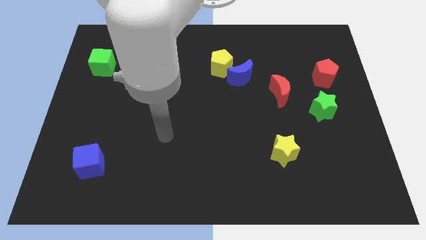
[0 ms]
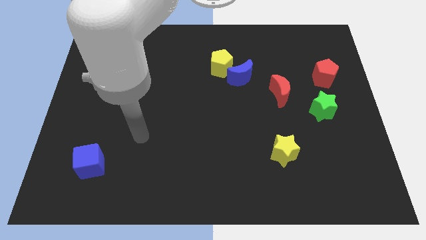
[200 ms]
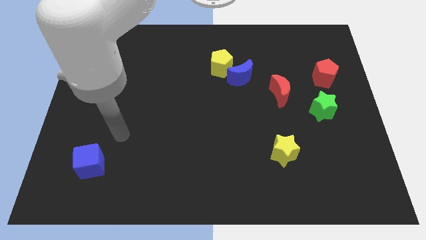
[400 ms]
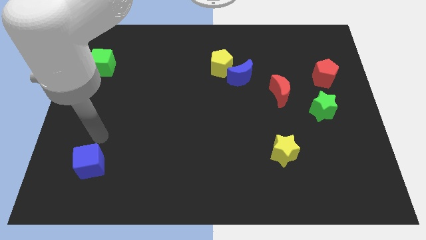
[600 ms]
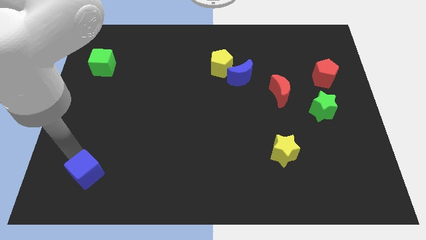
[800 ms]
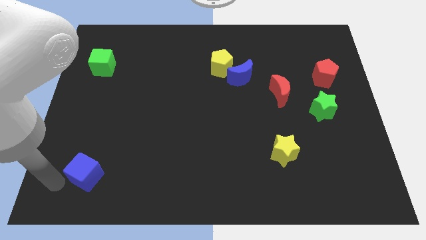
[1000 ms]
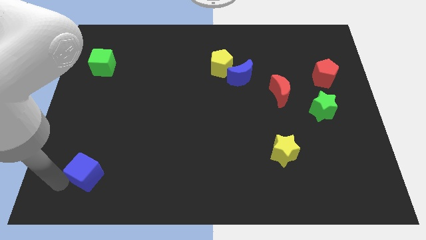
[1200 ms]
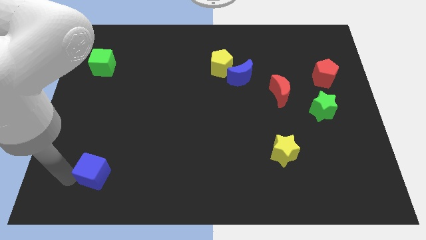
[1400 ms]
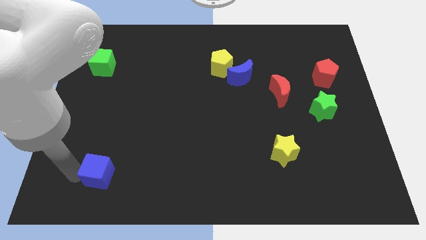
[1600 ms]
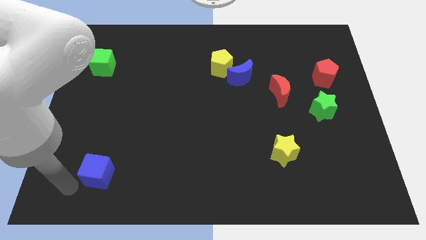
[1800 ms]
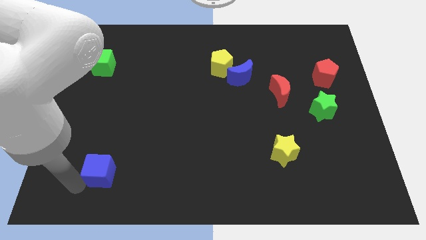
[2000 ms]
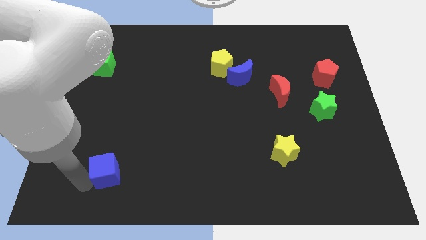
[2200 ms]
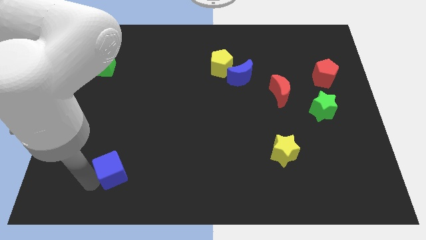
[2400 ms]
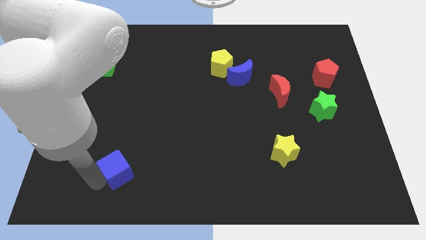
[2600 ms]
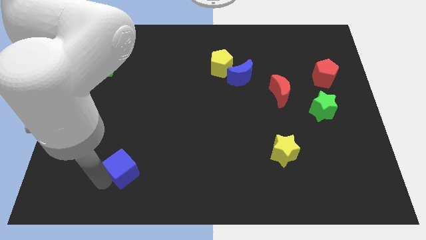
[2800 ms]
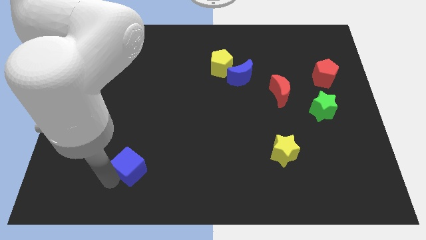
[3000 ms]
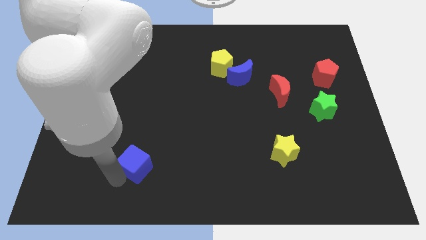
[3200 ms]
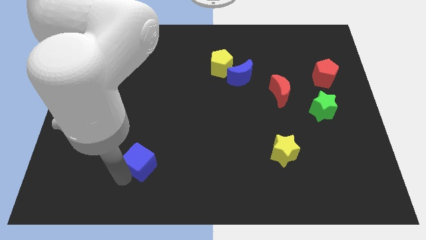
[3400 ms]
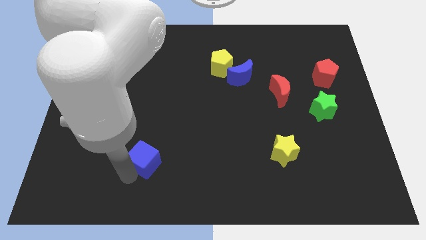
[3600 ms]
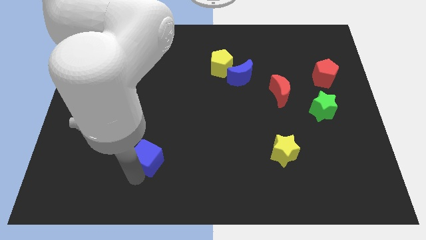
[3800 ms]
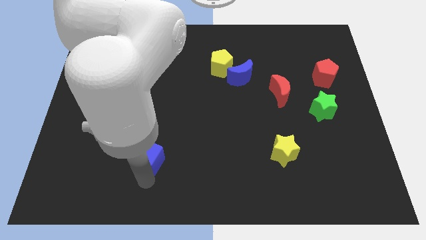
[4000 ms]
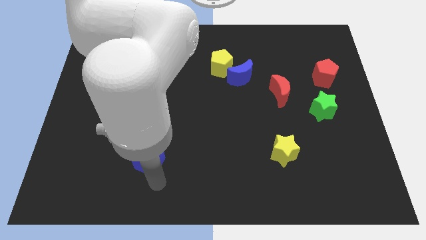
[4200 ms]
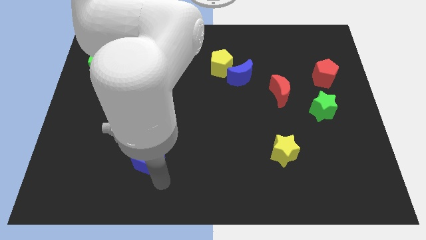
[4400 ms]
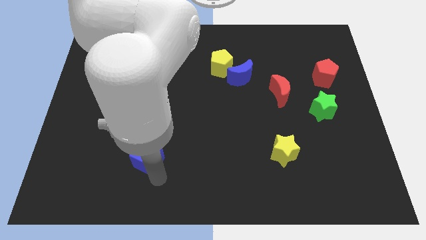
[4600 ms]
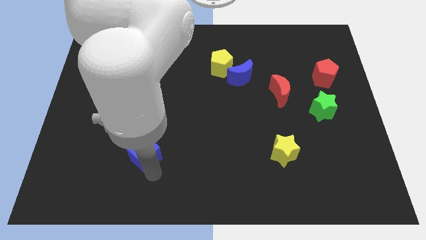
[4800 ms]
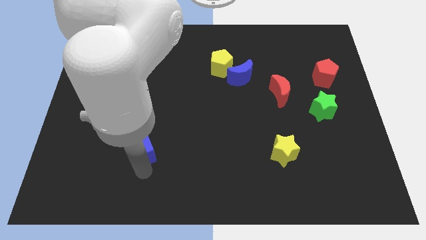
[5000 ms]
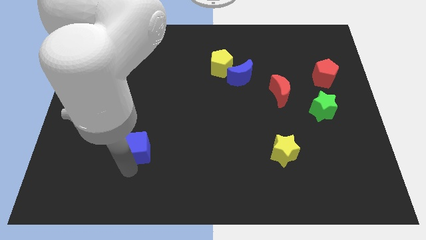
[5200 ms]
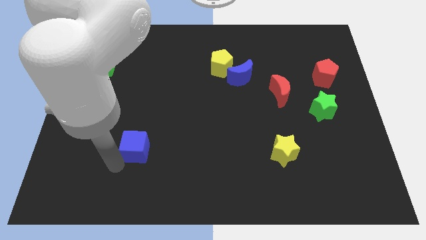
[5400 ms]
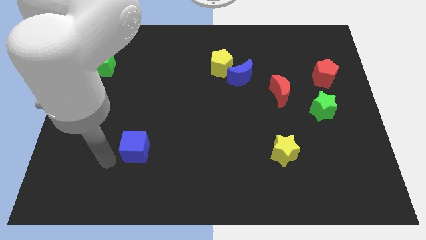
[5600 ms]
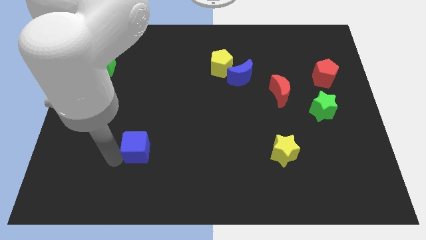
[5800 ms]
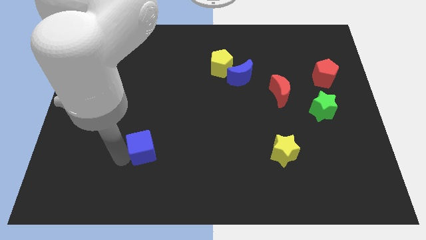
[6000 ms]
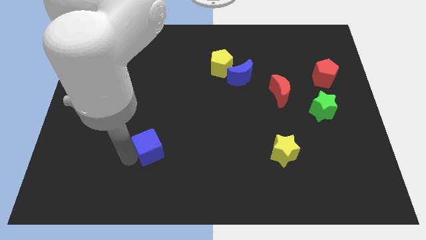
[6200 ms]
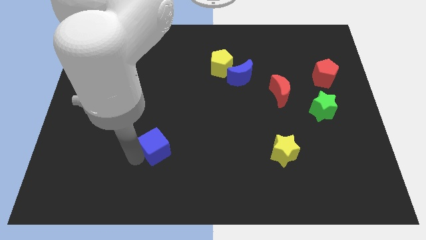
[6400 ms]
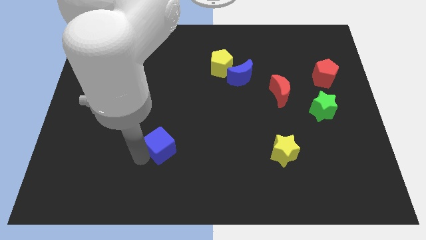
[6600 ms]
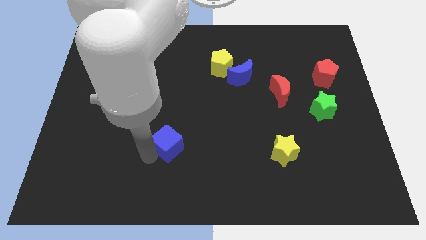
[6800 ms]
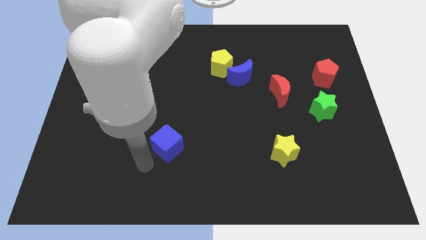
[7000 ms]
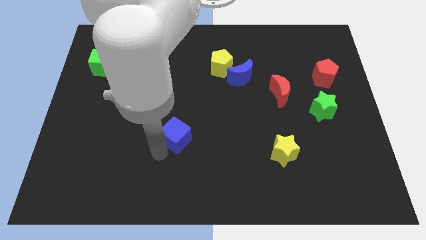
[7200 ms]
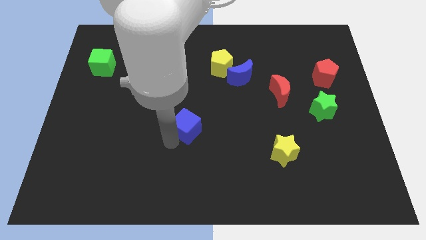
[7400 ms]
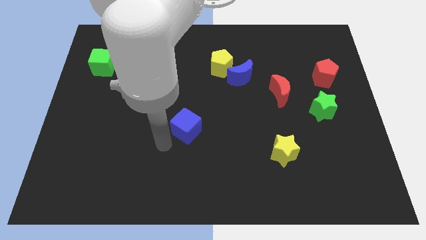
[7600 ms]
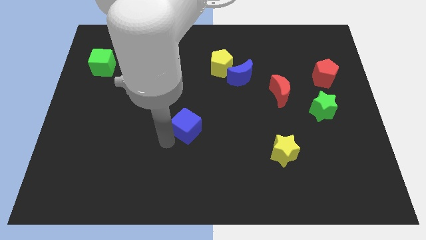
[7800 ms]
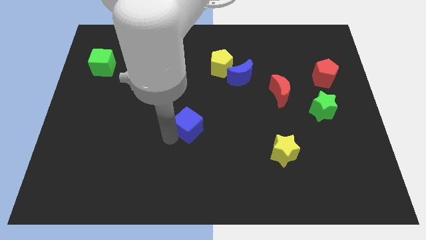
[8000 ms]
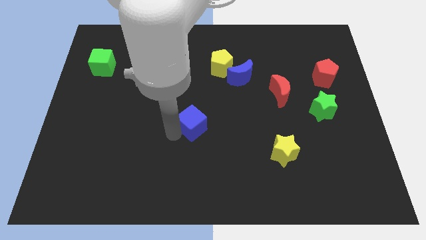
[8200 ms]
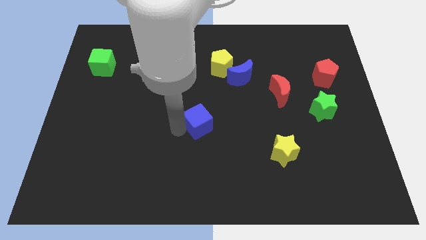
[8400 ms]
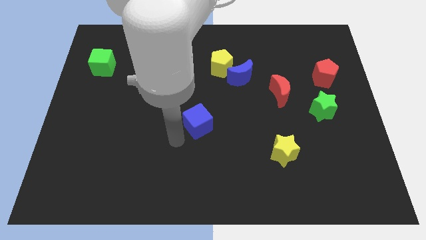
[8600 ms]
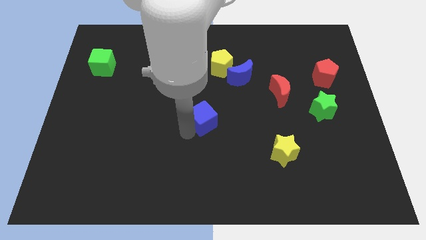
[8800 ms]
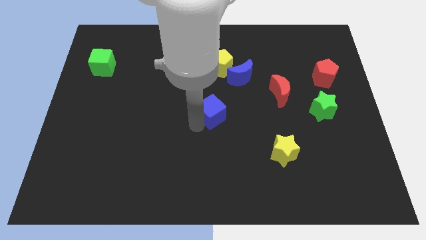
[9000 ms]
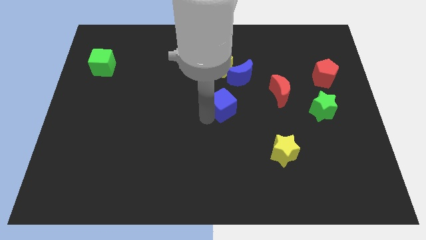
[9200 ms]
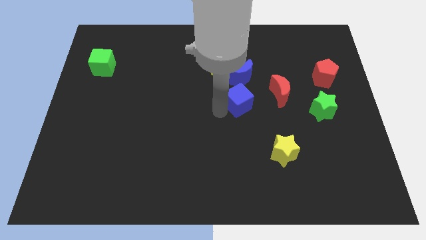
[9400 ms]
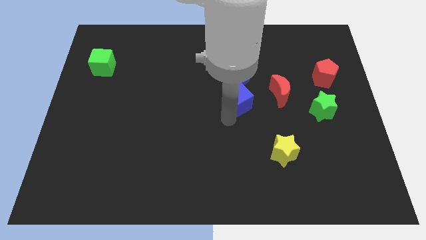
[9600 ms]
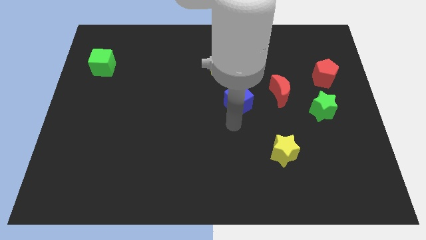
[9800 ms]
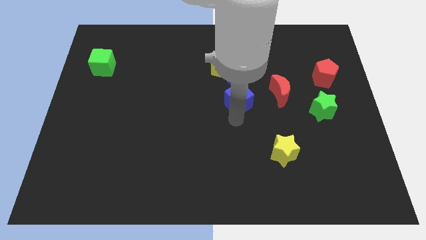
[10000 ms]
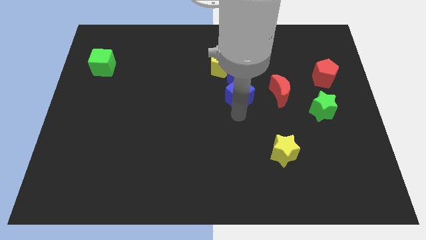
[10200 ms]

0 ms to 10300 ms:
move the blue cube to the bottom right of the yellow pentagon

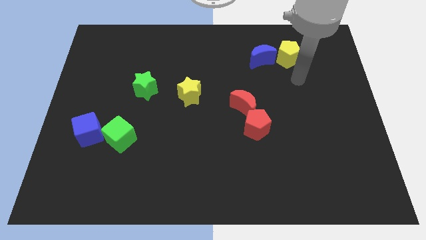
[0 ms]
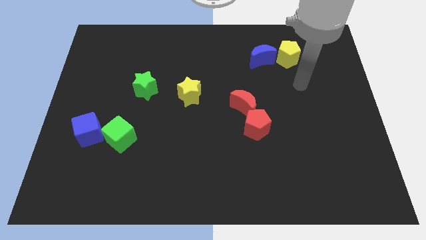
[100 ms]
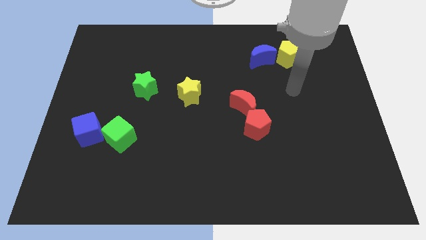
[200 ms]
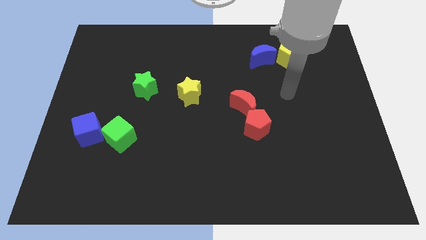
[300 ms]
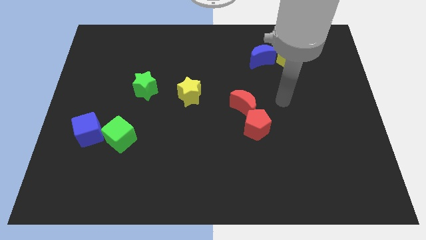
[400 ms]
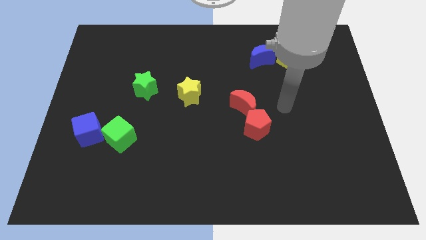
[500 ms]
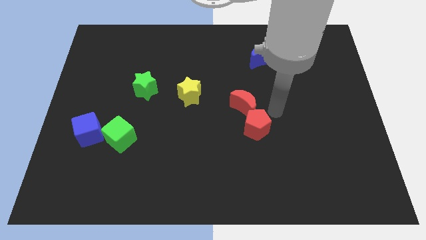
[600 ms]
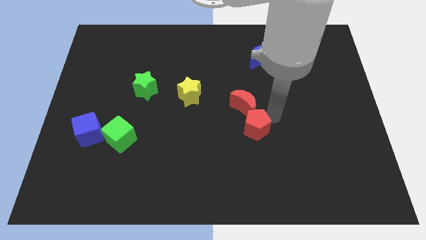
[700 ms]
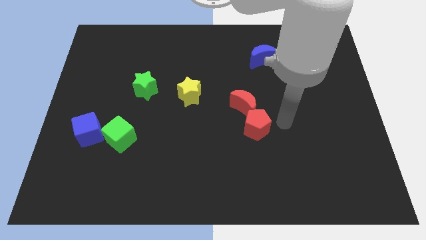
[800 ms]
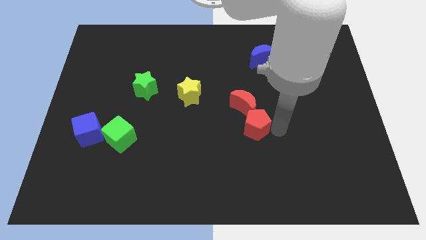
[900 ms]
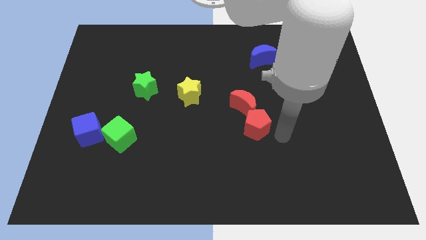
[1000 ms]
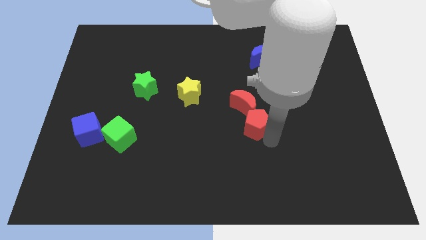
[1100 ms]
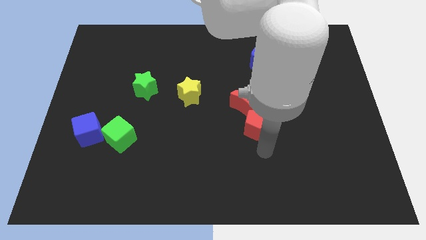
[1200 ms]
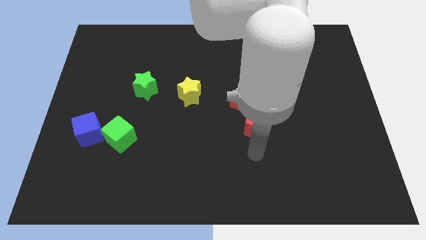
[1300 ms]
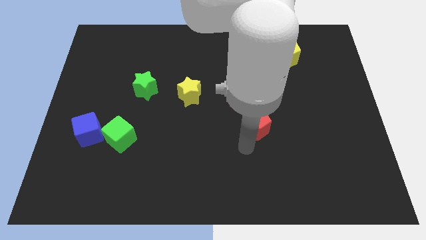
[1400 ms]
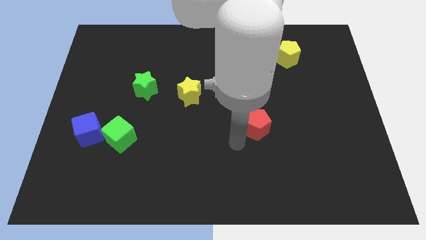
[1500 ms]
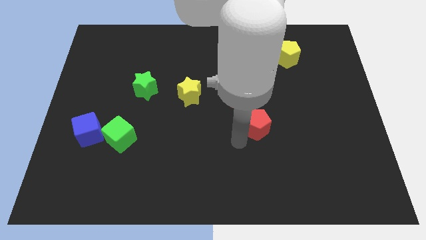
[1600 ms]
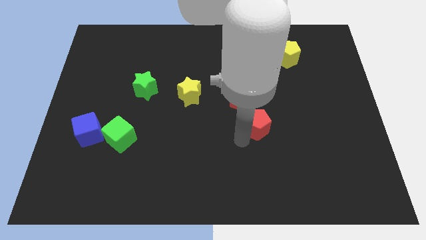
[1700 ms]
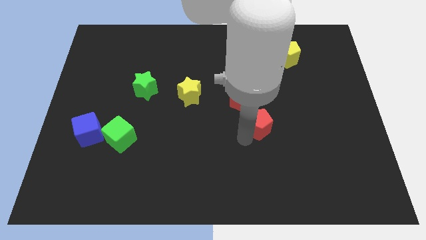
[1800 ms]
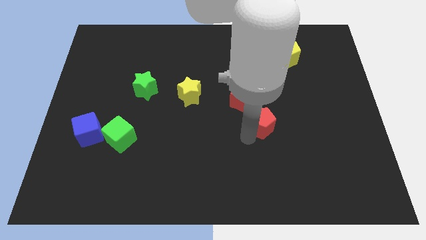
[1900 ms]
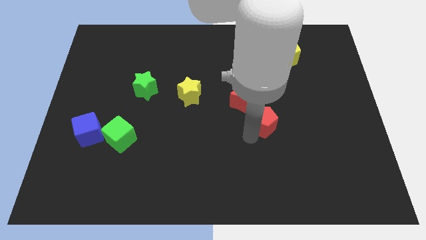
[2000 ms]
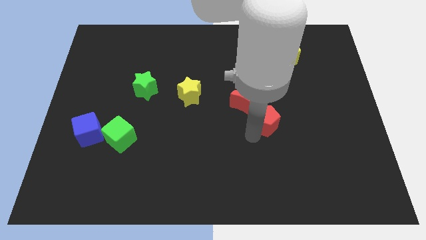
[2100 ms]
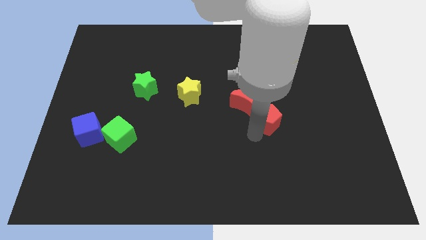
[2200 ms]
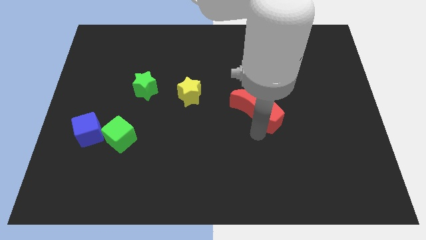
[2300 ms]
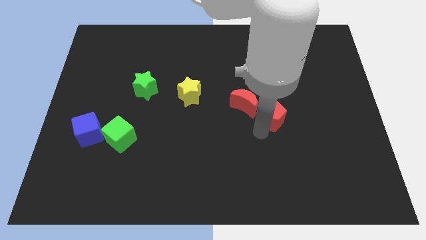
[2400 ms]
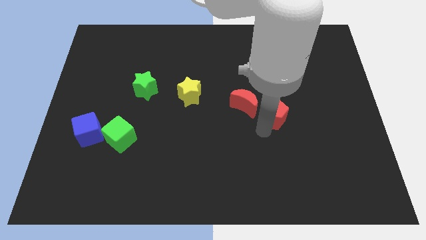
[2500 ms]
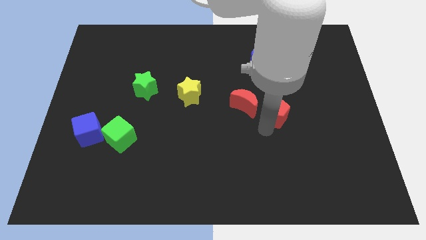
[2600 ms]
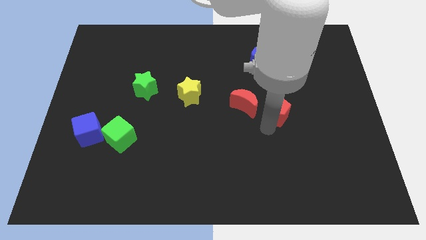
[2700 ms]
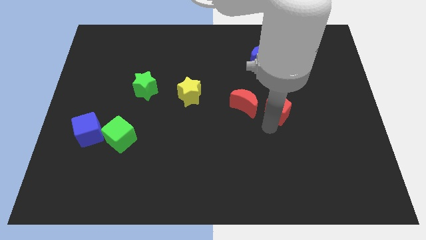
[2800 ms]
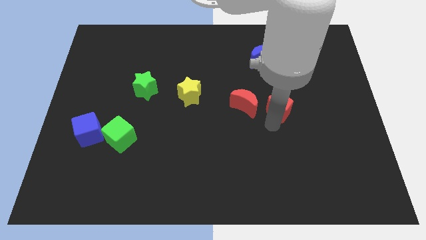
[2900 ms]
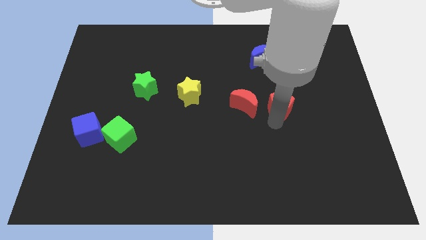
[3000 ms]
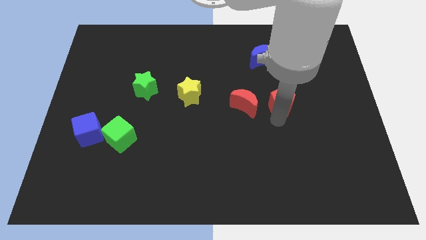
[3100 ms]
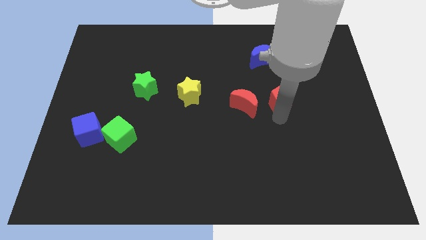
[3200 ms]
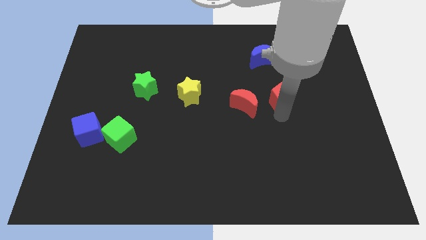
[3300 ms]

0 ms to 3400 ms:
move the red pentagon to the bottom of the yellow pentagon
